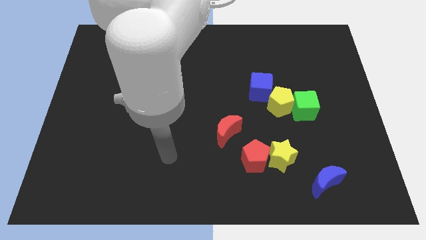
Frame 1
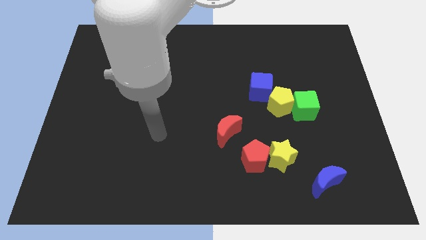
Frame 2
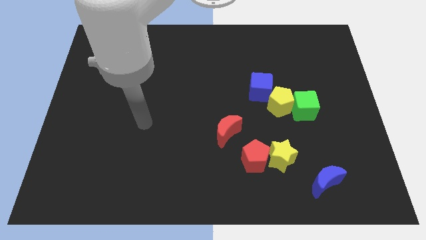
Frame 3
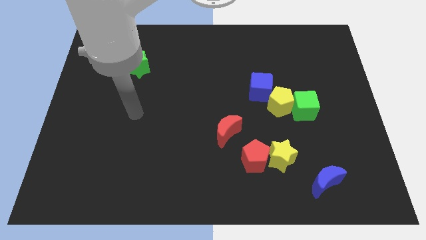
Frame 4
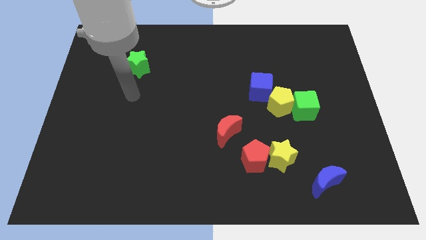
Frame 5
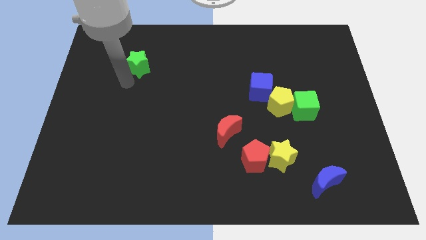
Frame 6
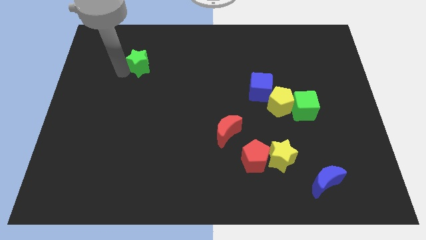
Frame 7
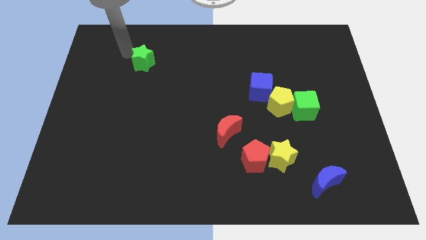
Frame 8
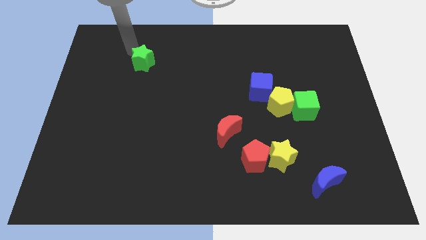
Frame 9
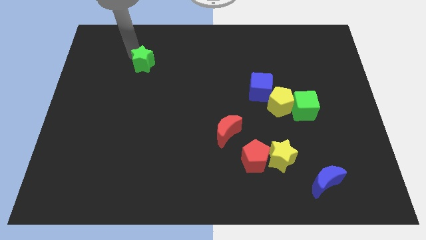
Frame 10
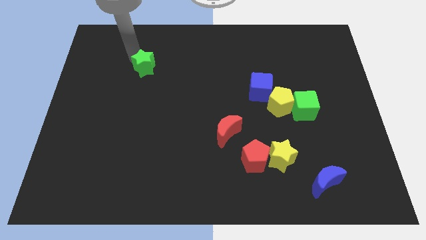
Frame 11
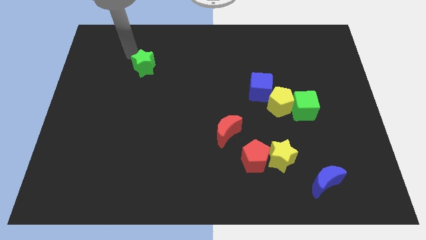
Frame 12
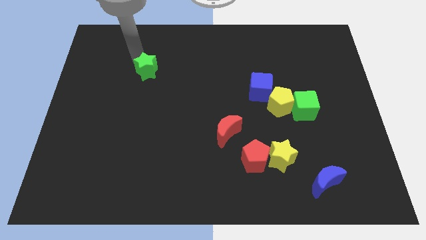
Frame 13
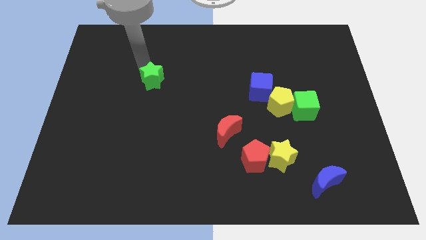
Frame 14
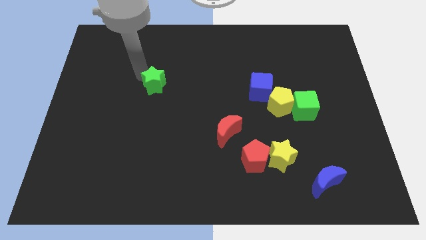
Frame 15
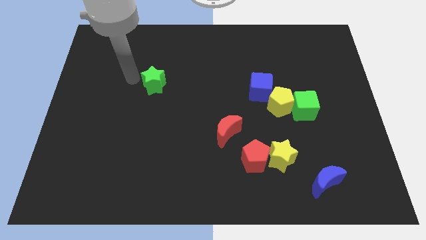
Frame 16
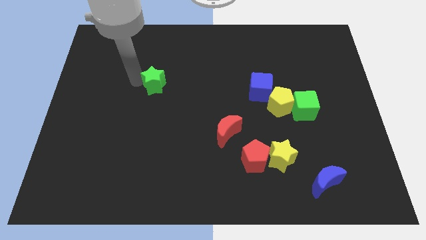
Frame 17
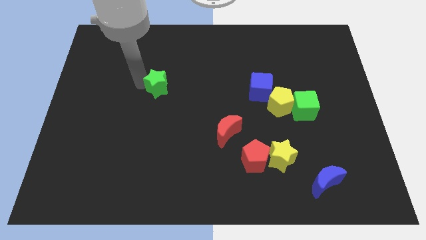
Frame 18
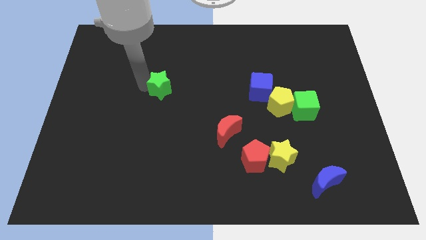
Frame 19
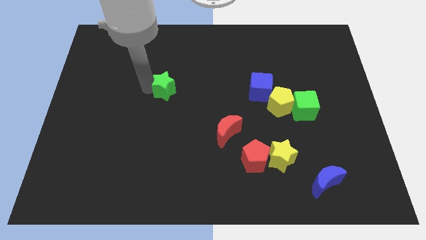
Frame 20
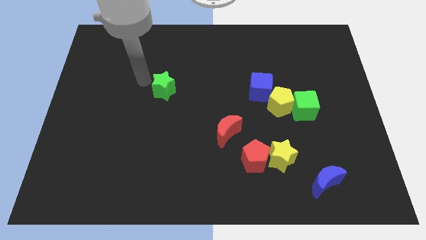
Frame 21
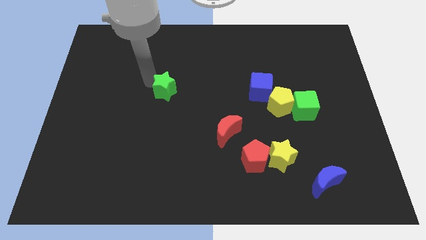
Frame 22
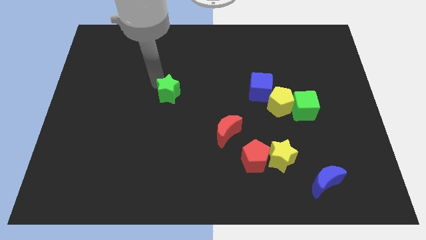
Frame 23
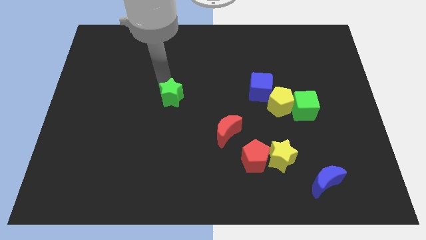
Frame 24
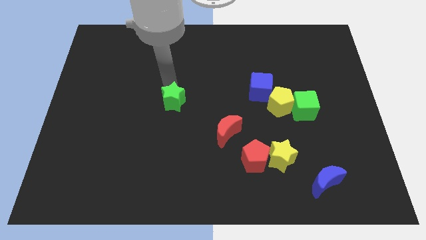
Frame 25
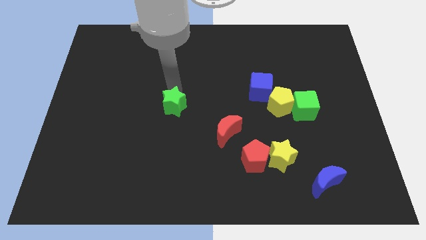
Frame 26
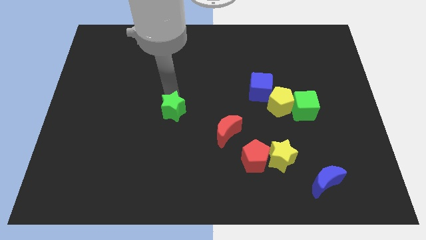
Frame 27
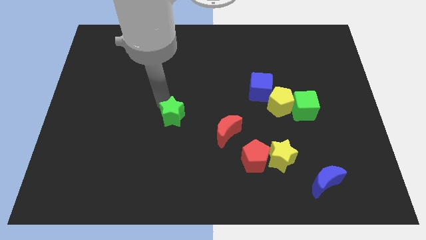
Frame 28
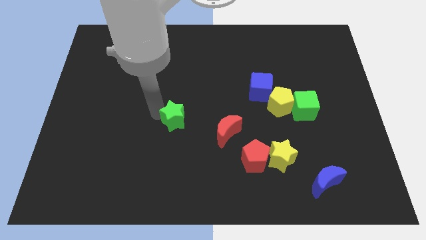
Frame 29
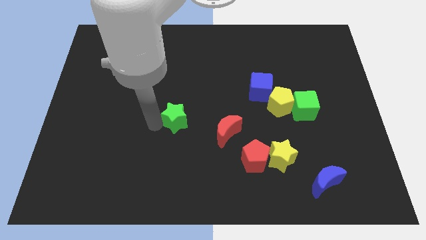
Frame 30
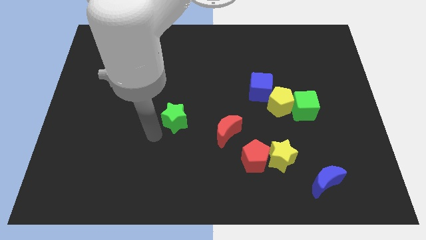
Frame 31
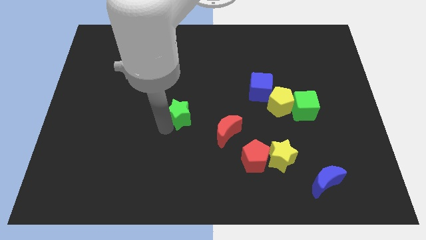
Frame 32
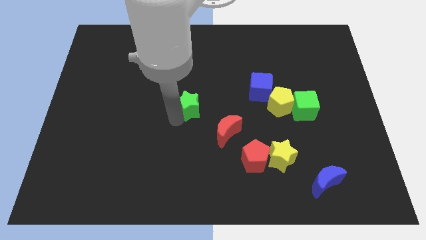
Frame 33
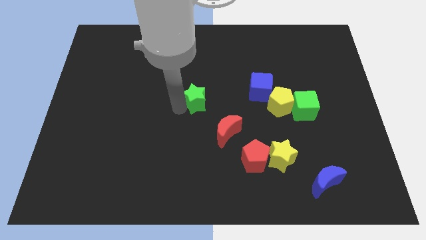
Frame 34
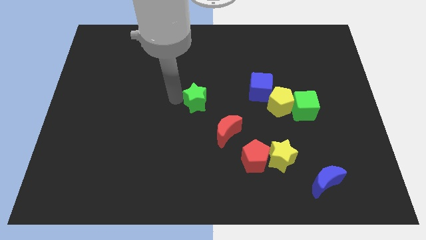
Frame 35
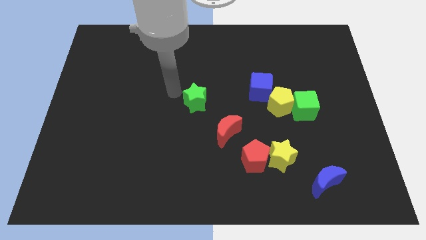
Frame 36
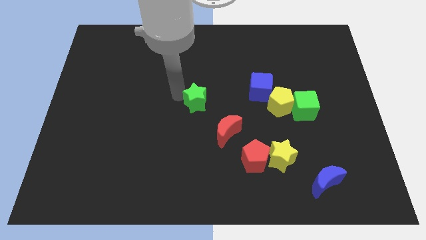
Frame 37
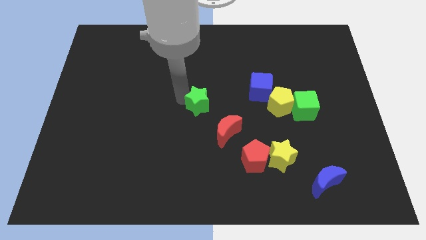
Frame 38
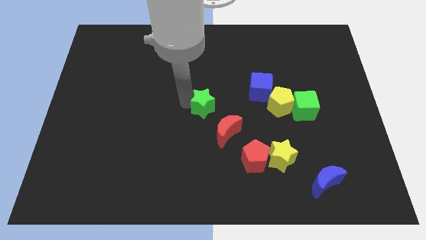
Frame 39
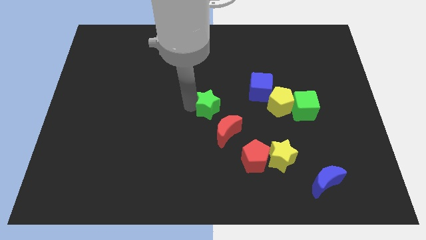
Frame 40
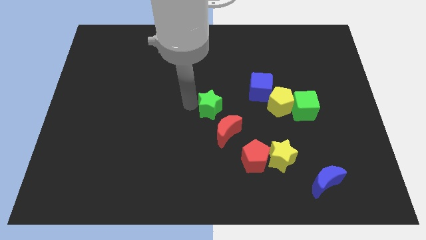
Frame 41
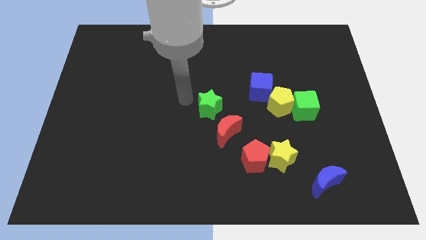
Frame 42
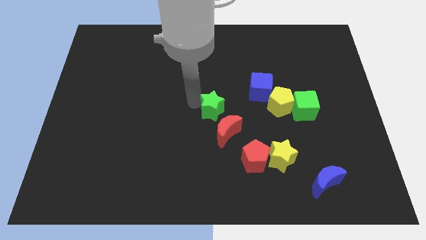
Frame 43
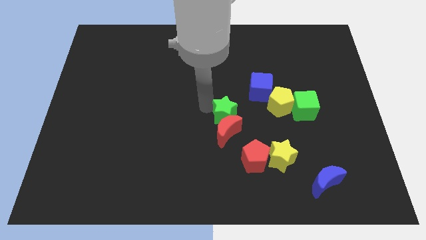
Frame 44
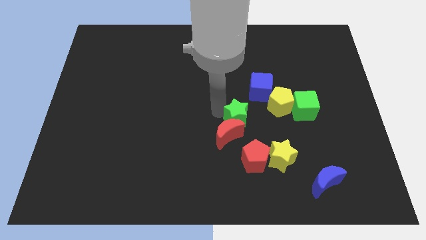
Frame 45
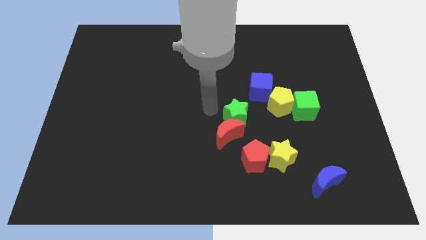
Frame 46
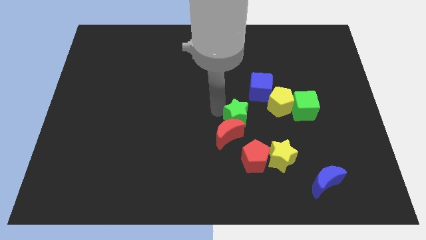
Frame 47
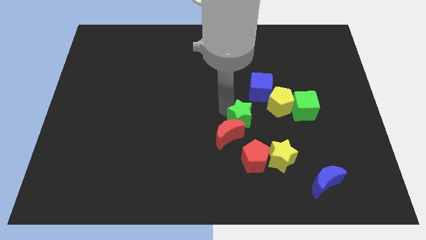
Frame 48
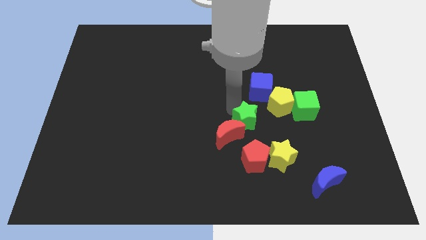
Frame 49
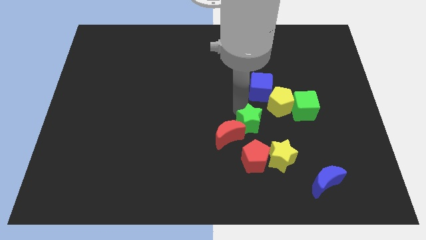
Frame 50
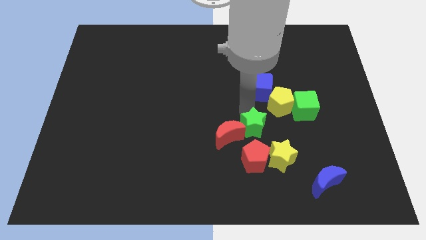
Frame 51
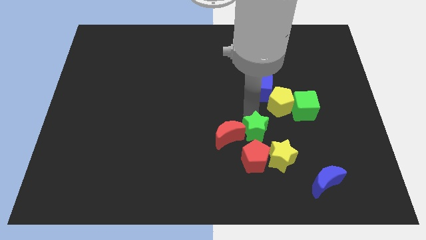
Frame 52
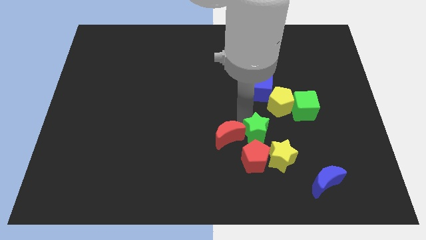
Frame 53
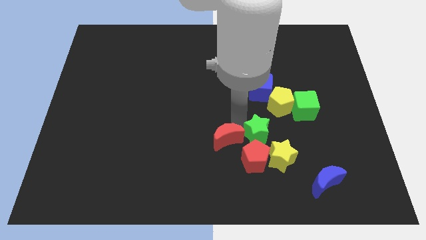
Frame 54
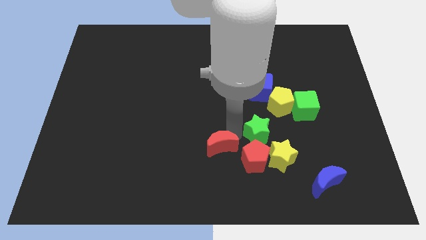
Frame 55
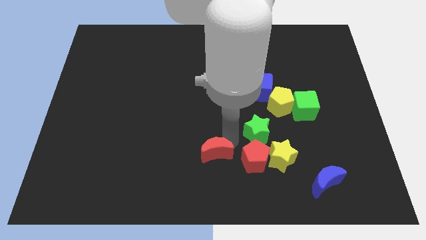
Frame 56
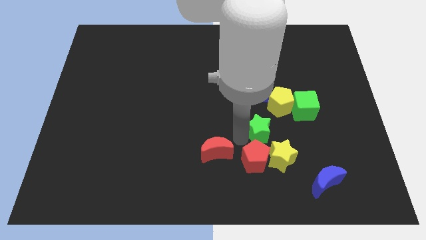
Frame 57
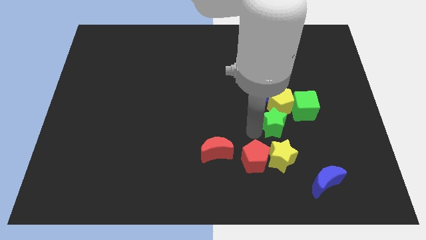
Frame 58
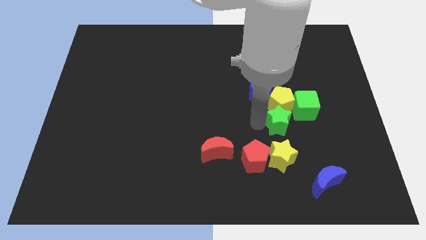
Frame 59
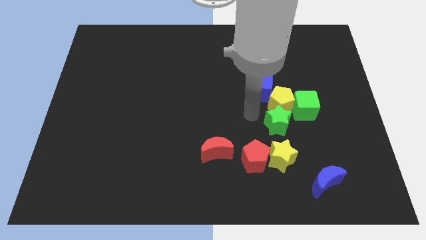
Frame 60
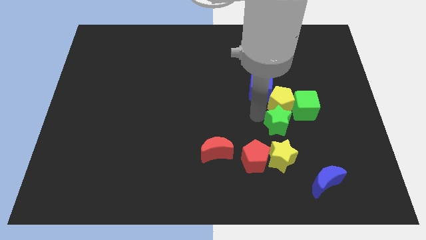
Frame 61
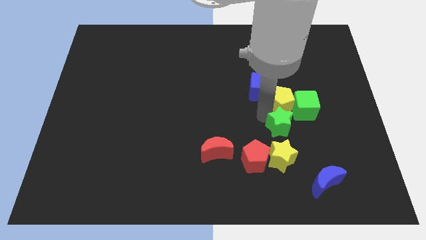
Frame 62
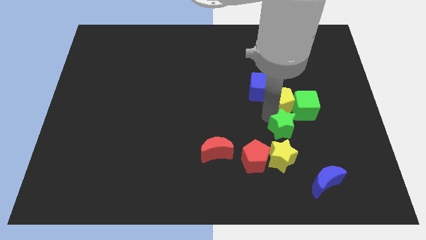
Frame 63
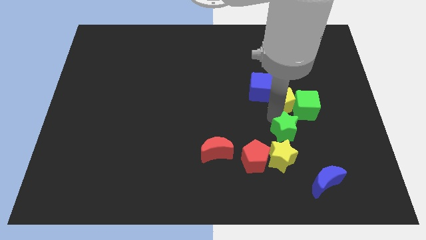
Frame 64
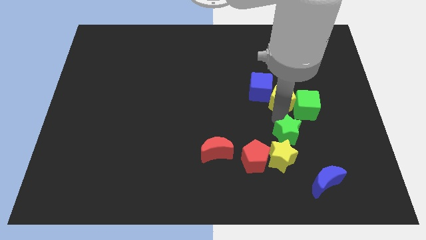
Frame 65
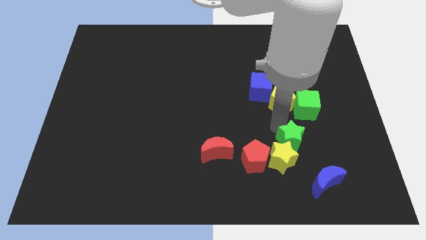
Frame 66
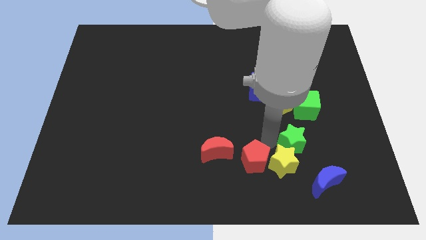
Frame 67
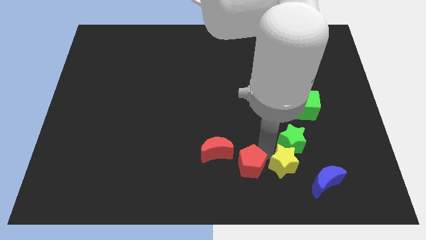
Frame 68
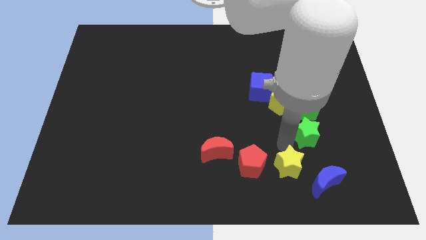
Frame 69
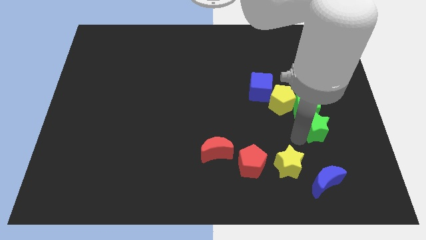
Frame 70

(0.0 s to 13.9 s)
slide the green star to the bottom right side of the green cube
